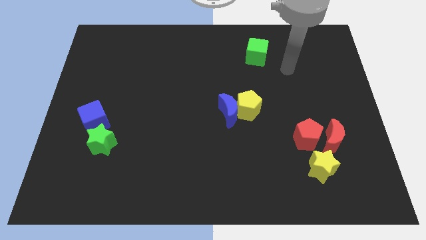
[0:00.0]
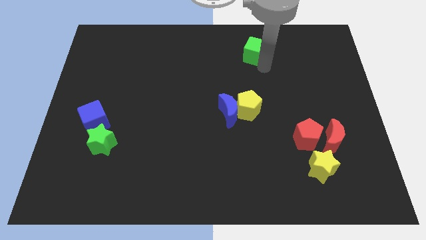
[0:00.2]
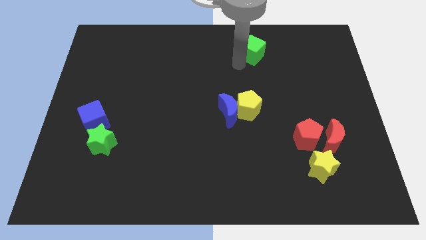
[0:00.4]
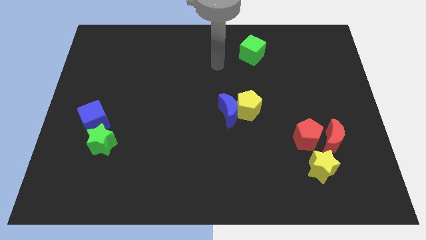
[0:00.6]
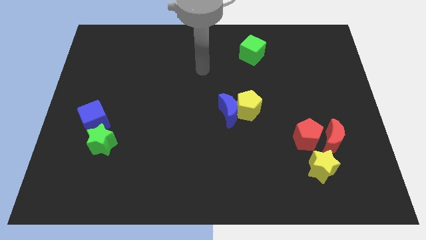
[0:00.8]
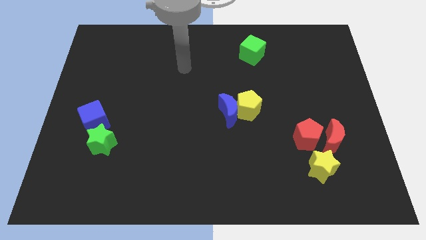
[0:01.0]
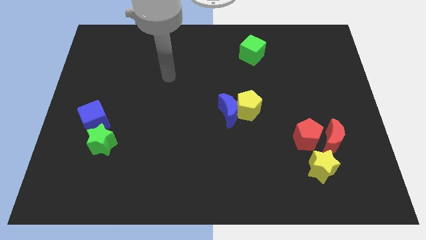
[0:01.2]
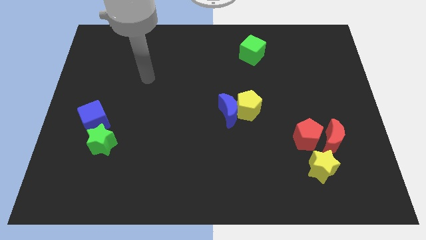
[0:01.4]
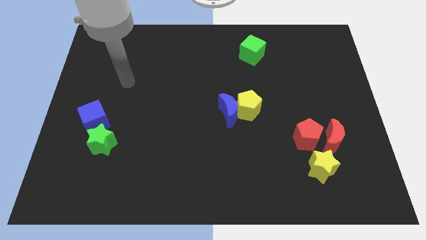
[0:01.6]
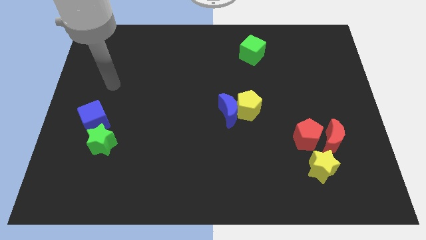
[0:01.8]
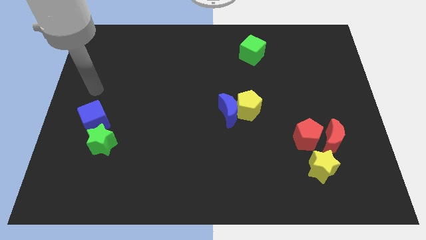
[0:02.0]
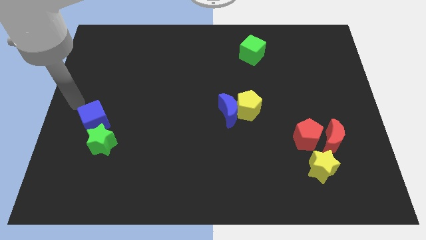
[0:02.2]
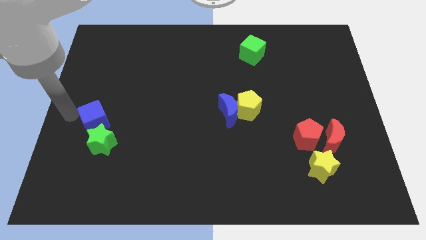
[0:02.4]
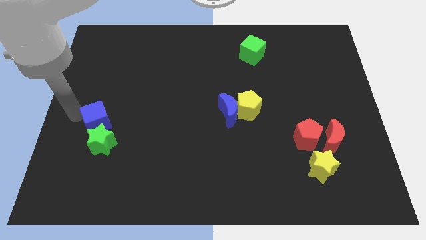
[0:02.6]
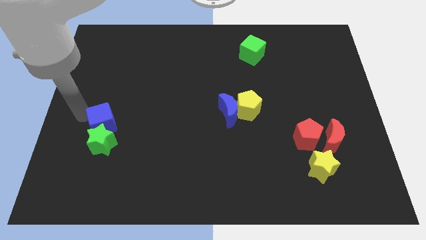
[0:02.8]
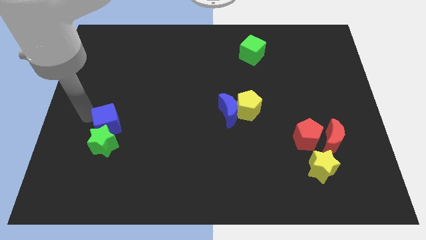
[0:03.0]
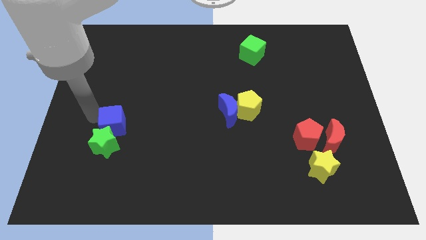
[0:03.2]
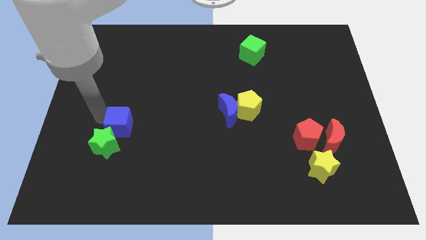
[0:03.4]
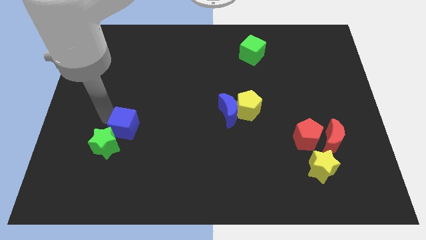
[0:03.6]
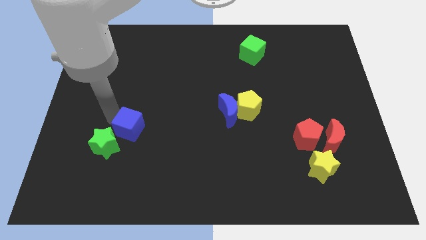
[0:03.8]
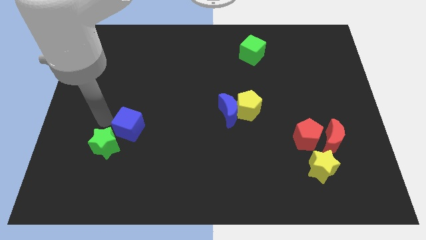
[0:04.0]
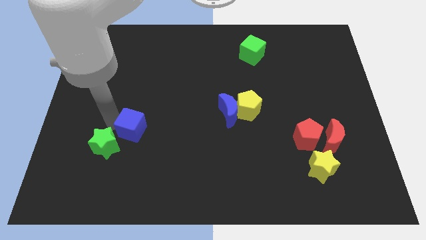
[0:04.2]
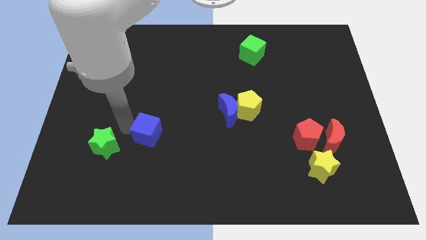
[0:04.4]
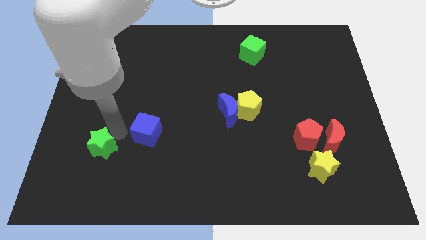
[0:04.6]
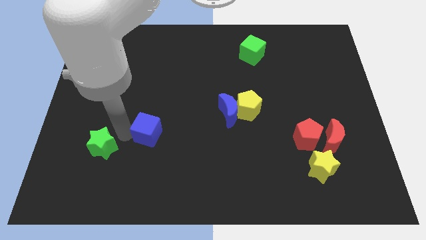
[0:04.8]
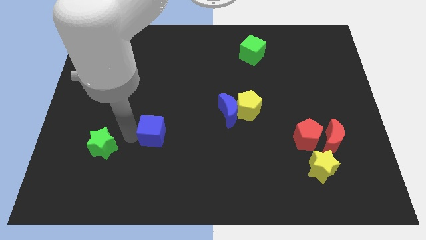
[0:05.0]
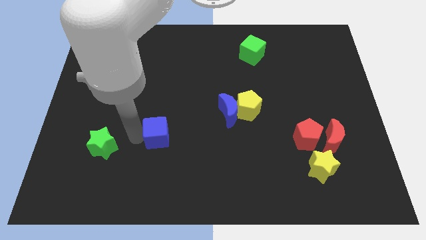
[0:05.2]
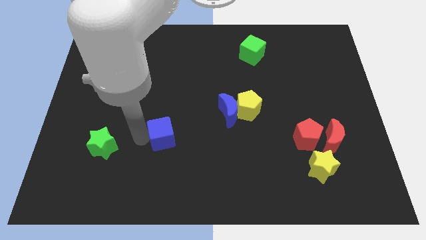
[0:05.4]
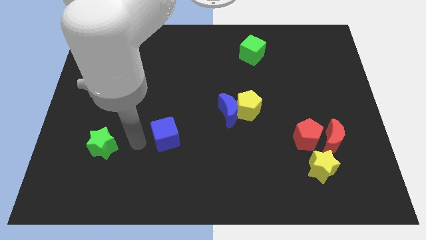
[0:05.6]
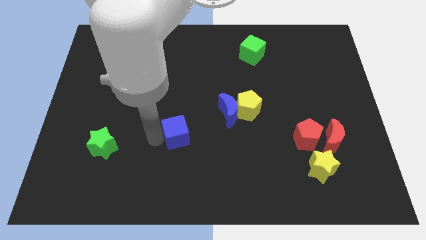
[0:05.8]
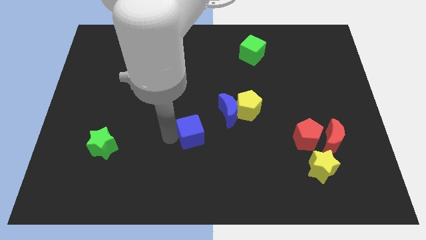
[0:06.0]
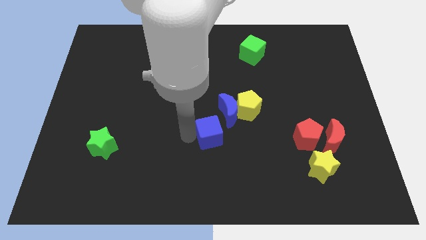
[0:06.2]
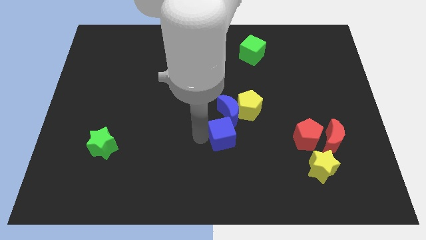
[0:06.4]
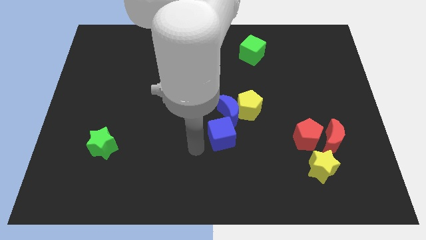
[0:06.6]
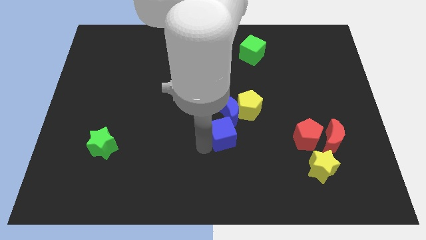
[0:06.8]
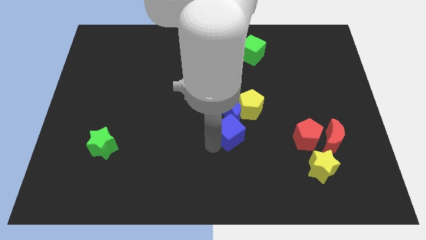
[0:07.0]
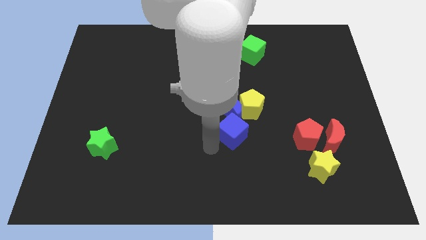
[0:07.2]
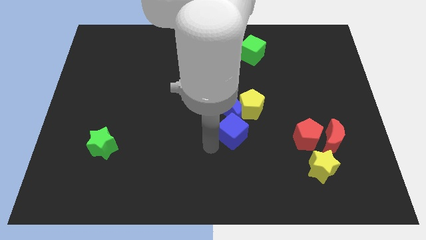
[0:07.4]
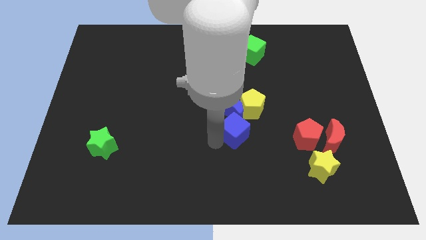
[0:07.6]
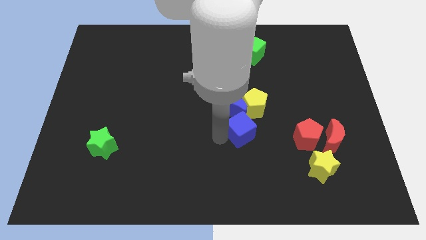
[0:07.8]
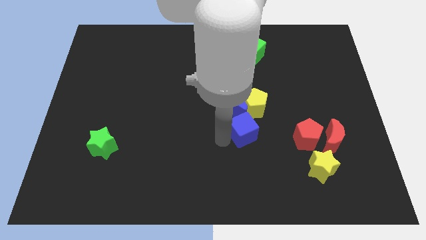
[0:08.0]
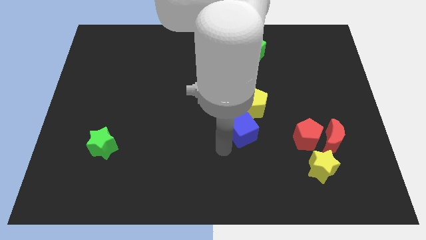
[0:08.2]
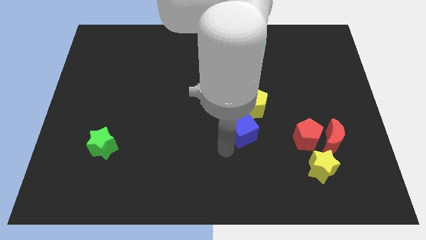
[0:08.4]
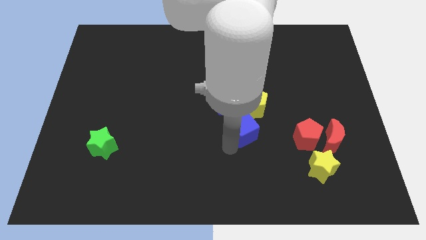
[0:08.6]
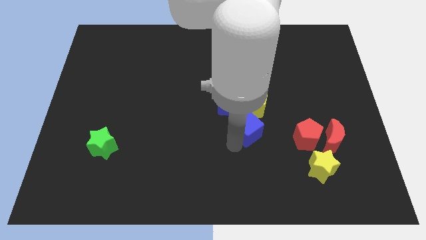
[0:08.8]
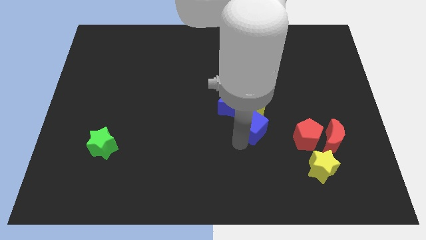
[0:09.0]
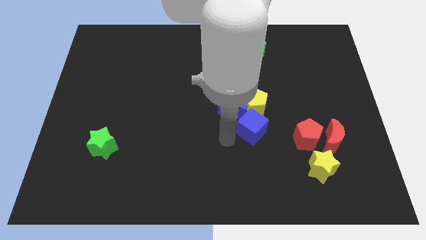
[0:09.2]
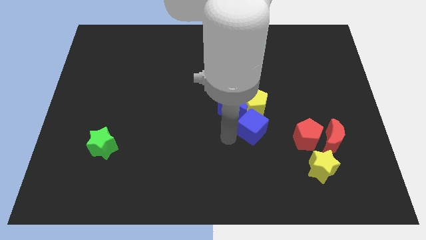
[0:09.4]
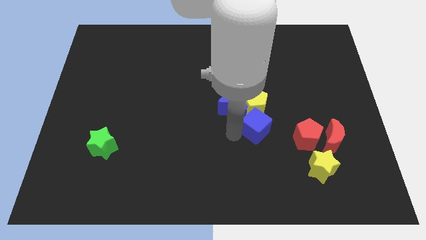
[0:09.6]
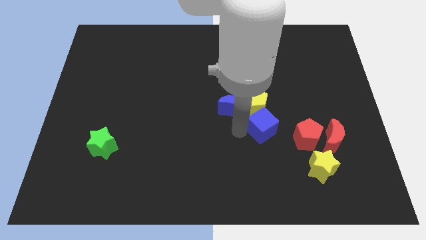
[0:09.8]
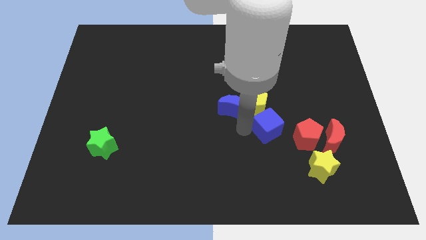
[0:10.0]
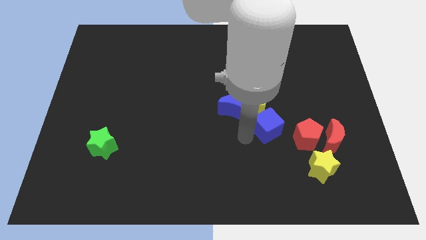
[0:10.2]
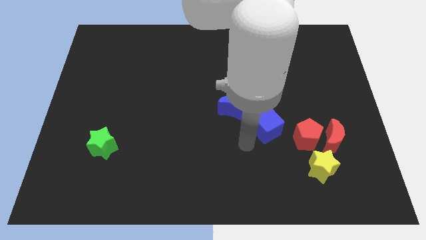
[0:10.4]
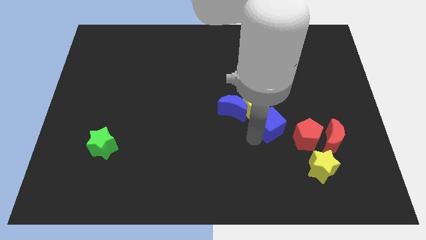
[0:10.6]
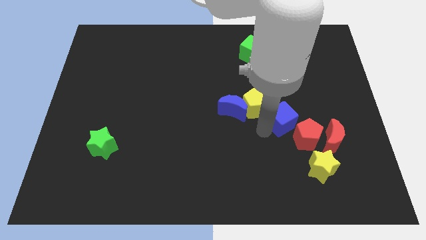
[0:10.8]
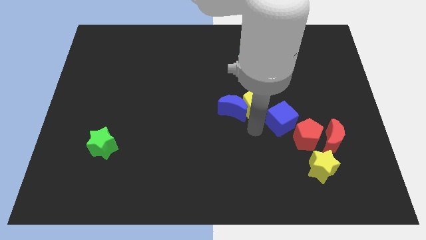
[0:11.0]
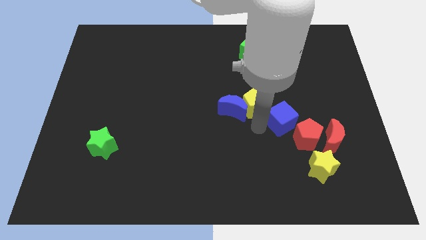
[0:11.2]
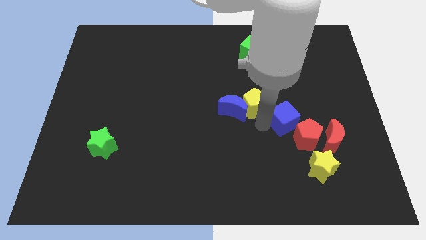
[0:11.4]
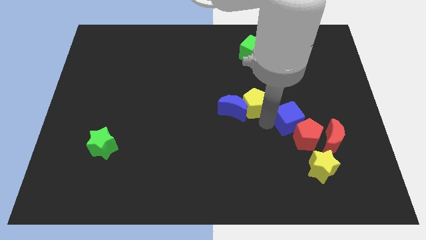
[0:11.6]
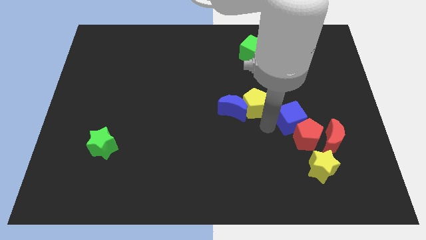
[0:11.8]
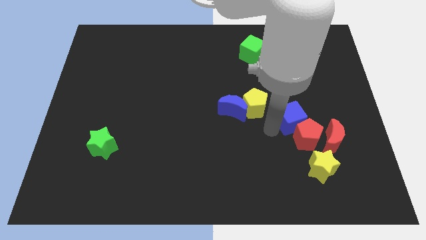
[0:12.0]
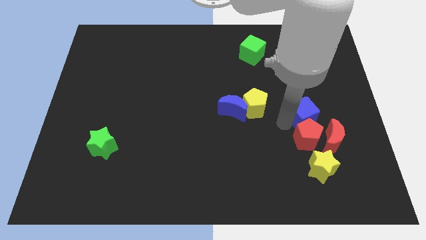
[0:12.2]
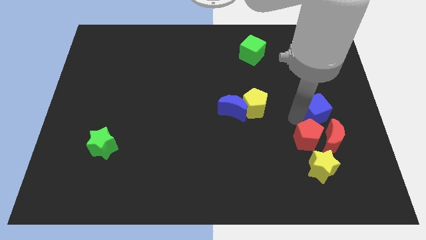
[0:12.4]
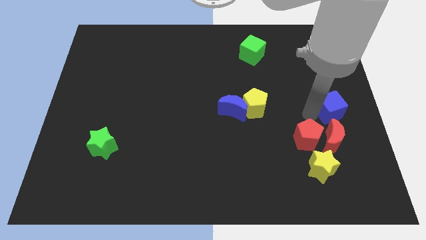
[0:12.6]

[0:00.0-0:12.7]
move the blue cube to the right side of the board
